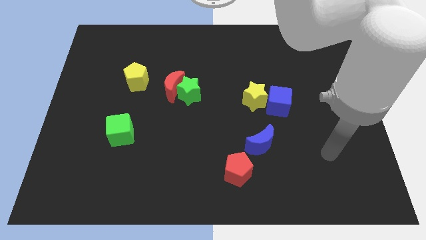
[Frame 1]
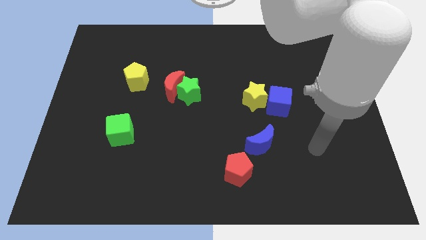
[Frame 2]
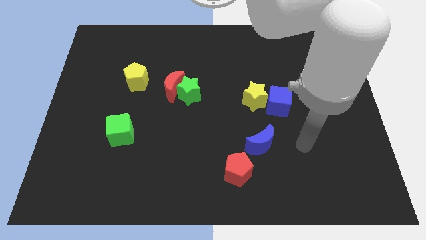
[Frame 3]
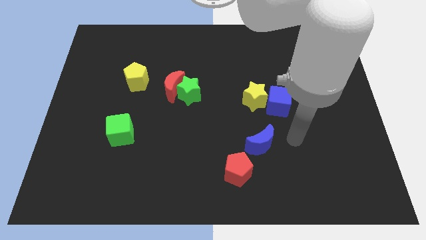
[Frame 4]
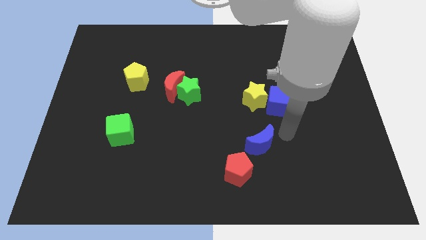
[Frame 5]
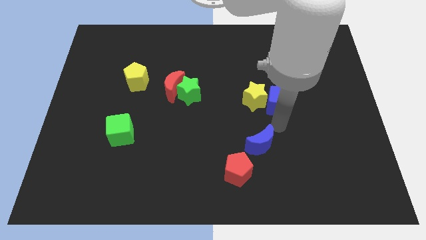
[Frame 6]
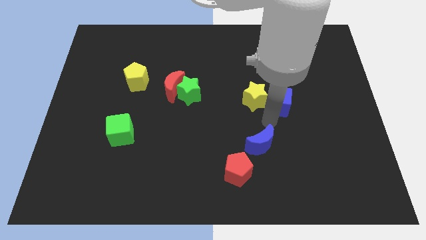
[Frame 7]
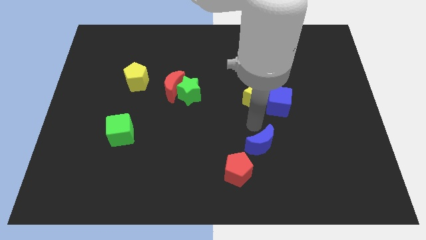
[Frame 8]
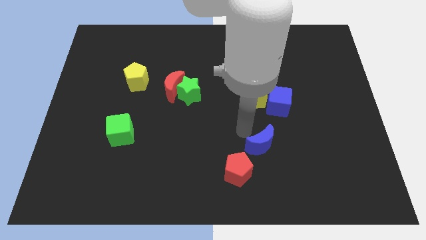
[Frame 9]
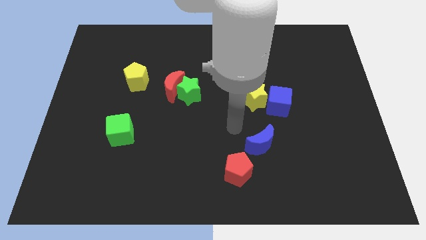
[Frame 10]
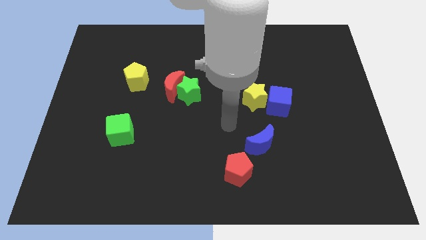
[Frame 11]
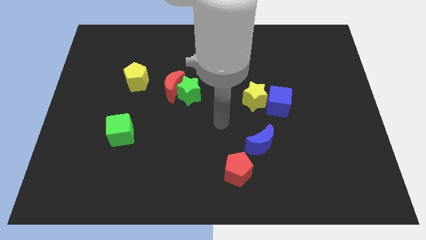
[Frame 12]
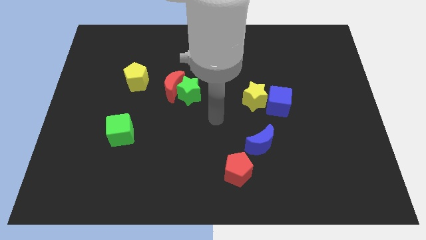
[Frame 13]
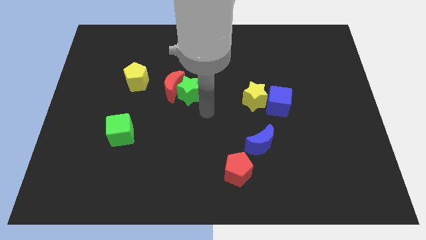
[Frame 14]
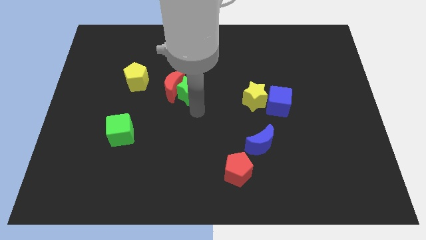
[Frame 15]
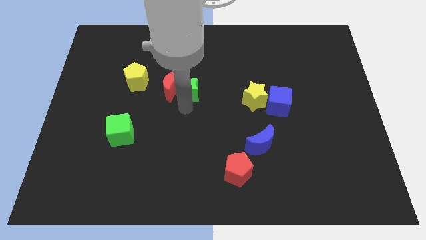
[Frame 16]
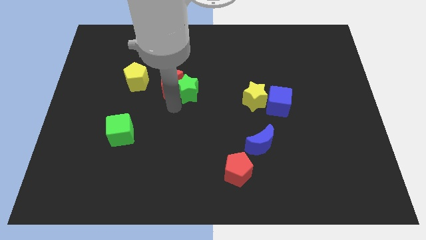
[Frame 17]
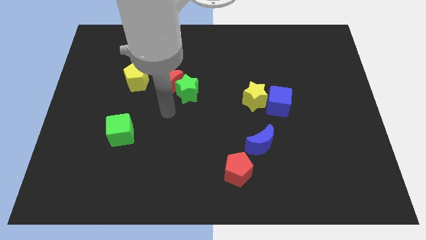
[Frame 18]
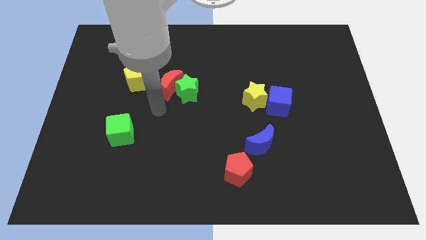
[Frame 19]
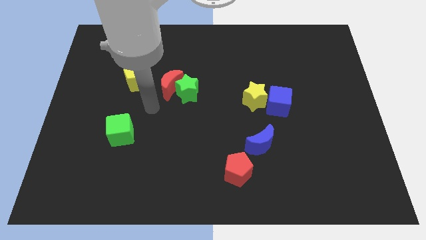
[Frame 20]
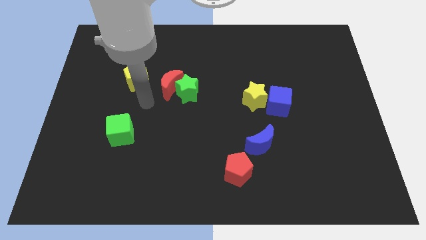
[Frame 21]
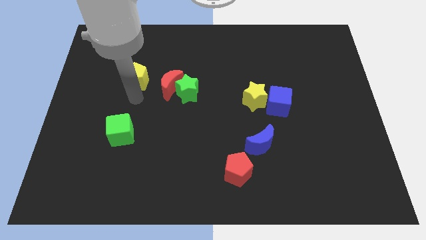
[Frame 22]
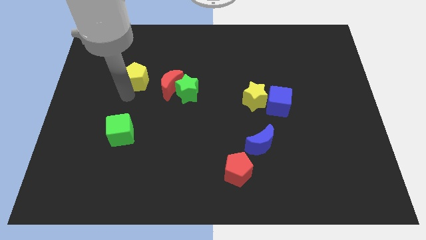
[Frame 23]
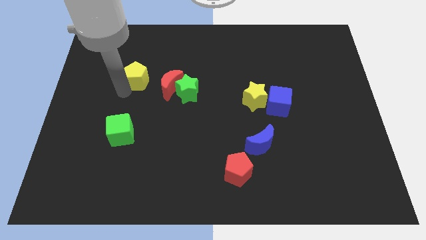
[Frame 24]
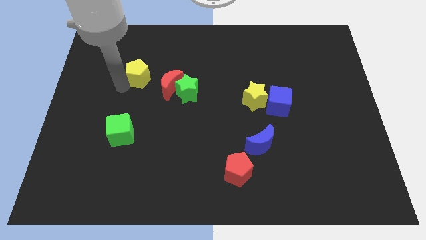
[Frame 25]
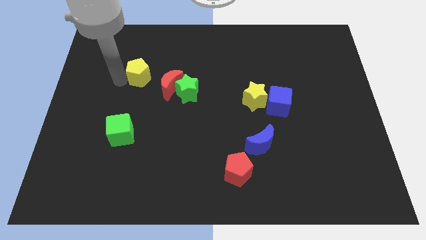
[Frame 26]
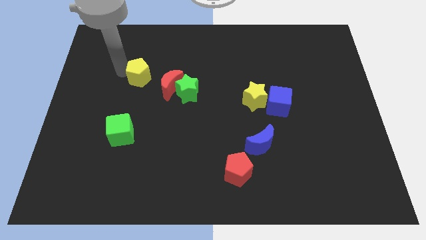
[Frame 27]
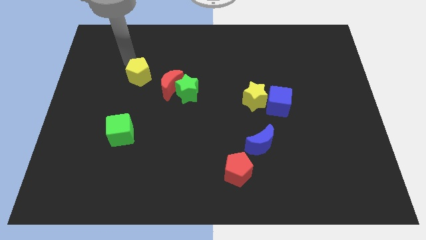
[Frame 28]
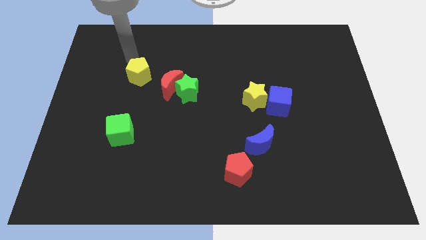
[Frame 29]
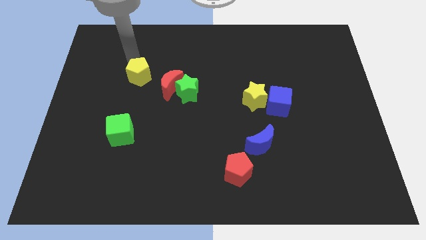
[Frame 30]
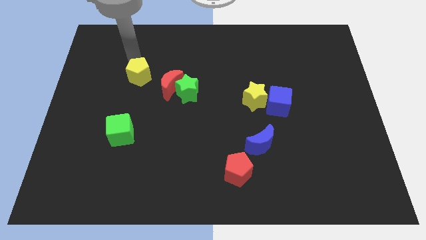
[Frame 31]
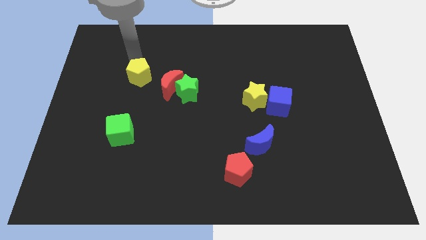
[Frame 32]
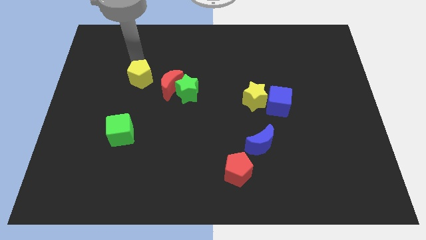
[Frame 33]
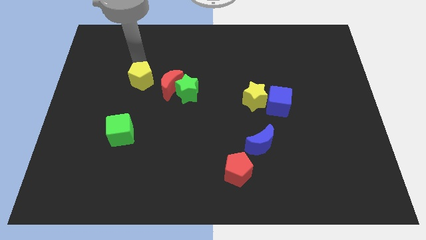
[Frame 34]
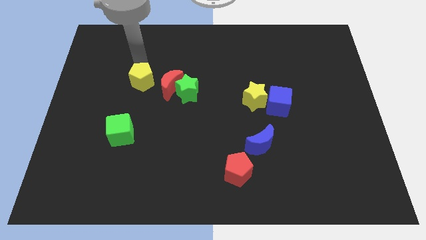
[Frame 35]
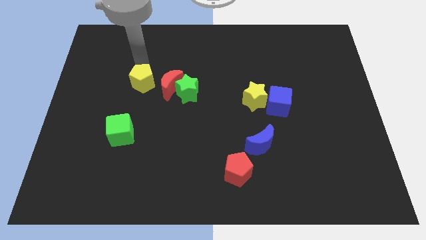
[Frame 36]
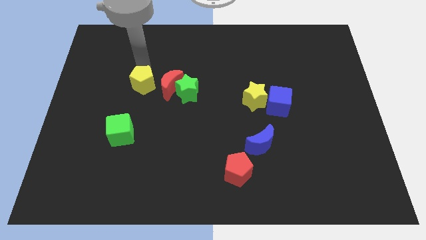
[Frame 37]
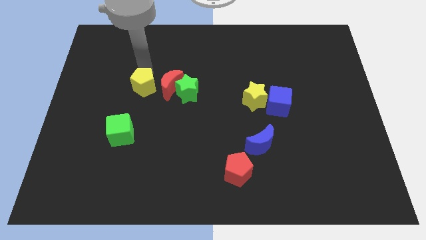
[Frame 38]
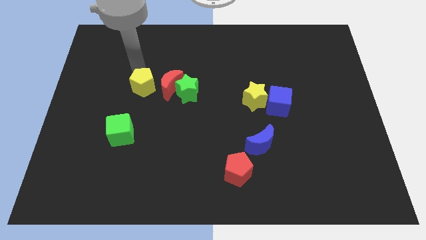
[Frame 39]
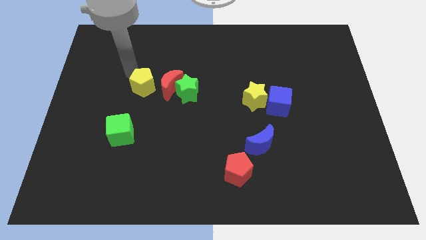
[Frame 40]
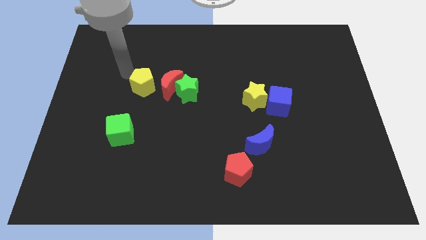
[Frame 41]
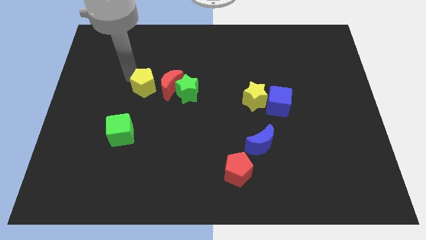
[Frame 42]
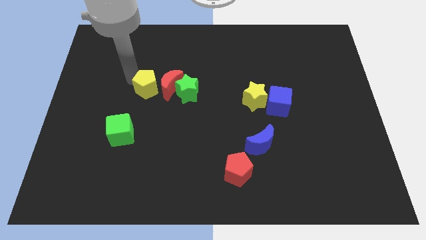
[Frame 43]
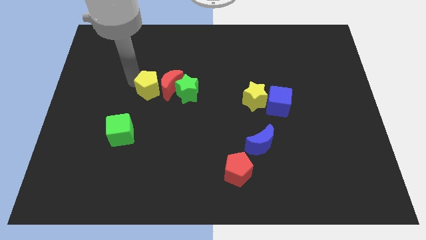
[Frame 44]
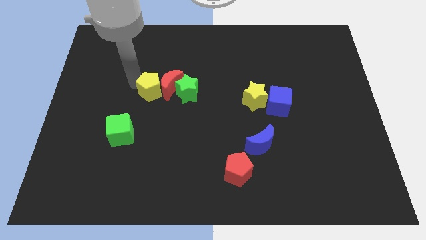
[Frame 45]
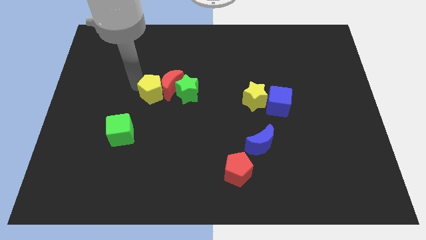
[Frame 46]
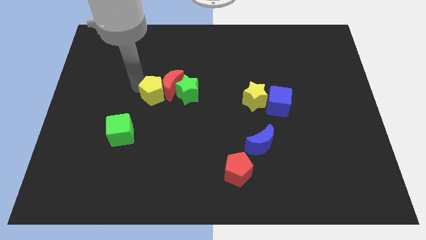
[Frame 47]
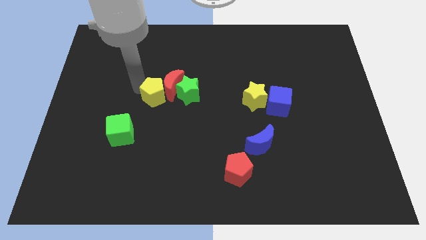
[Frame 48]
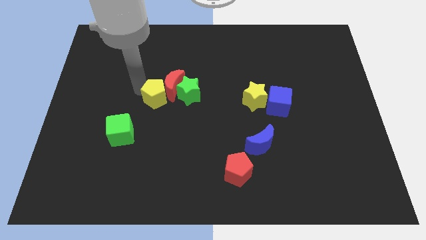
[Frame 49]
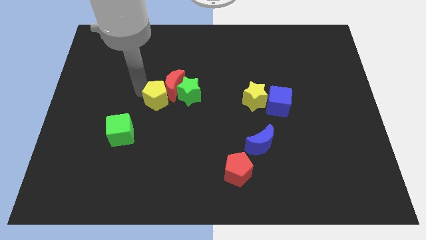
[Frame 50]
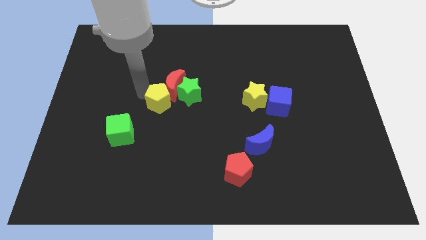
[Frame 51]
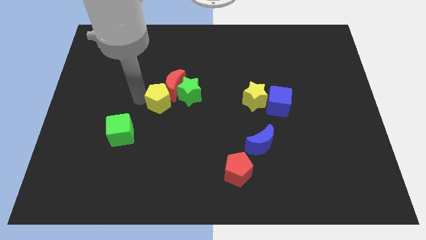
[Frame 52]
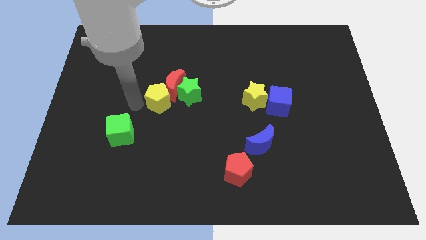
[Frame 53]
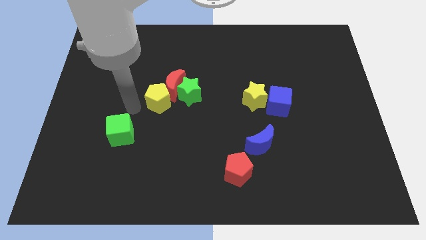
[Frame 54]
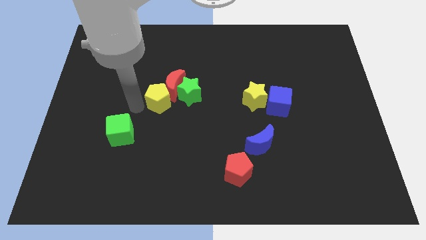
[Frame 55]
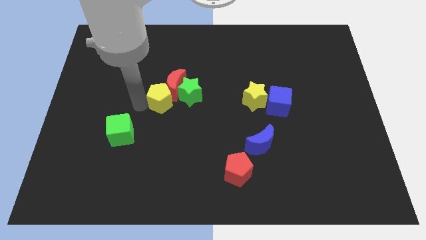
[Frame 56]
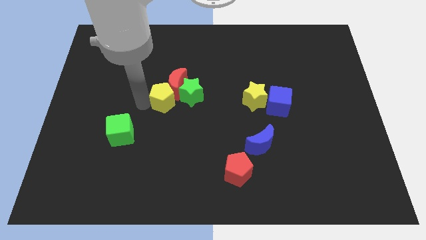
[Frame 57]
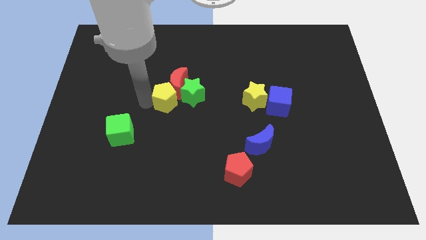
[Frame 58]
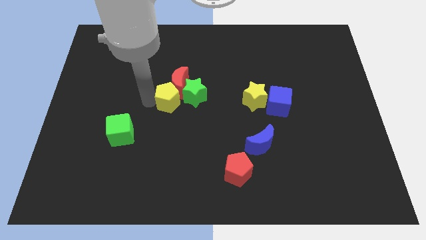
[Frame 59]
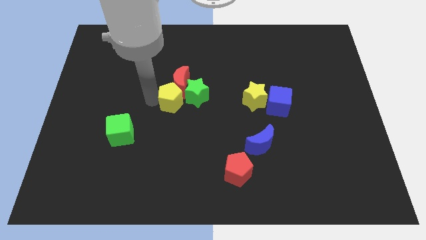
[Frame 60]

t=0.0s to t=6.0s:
move the yellow pentagon towards the green star

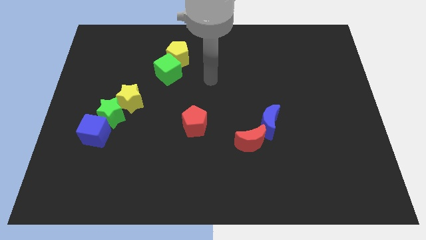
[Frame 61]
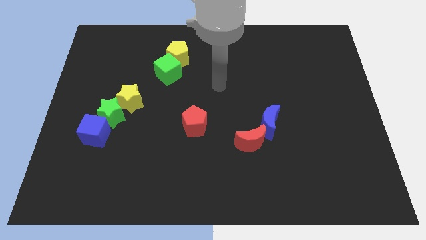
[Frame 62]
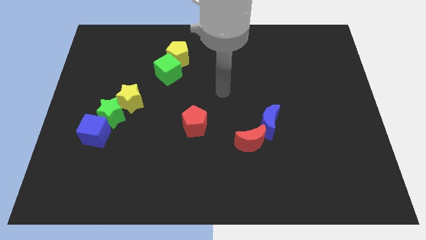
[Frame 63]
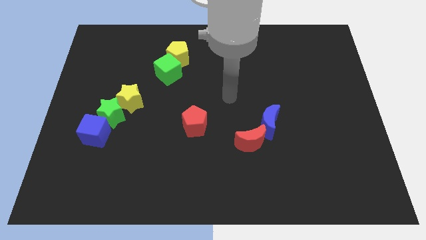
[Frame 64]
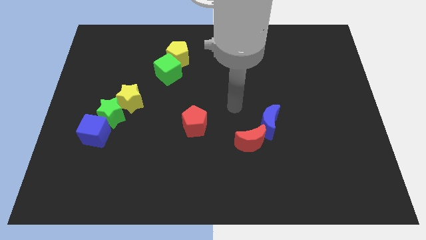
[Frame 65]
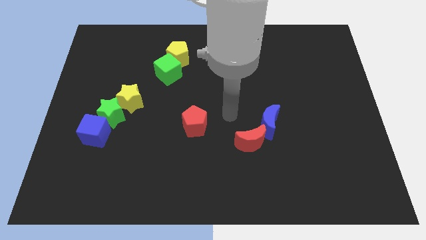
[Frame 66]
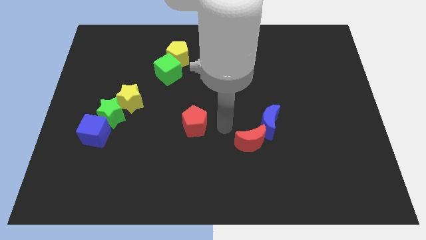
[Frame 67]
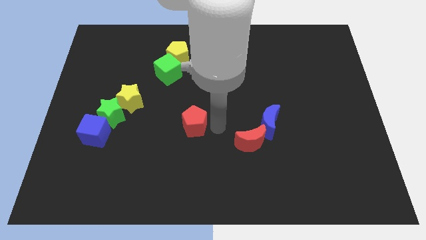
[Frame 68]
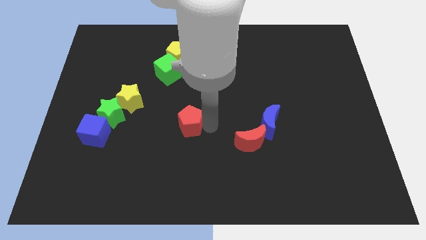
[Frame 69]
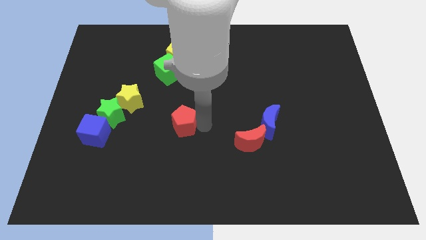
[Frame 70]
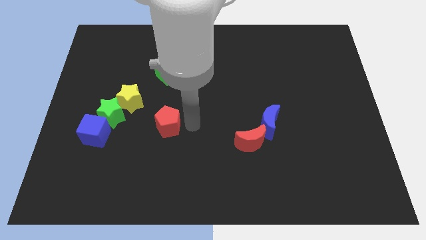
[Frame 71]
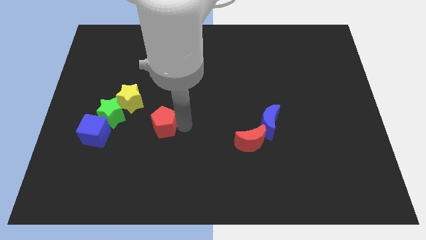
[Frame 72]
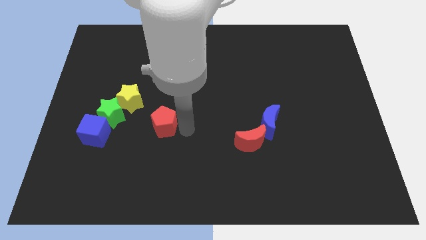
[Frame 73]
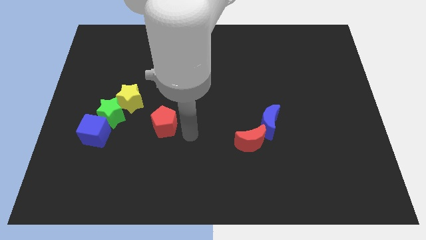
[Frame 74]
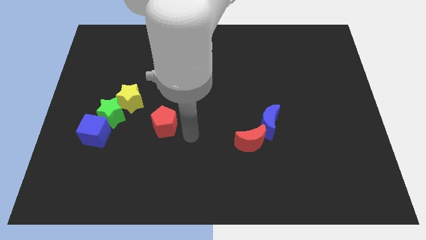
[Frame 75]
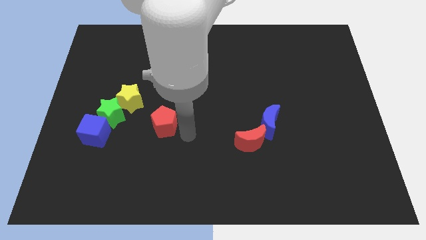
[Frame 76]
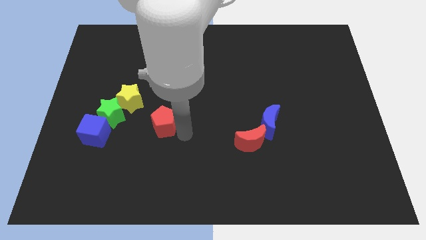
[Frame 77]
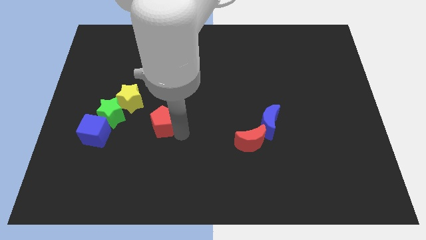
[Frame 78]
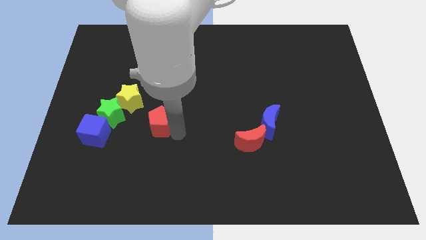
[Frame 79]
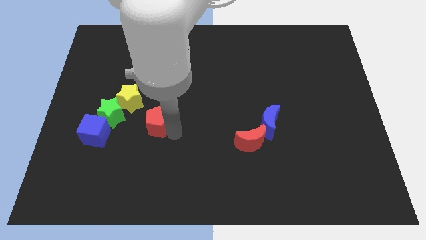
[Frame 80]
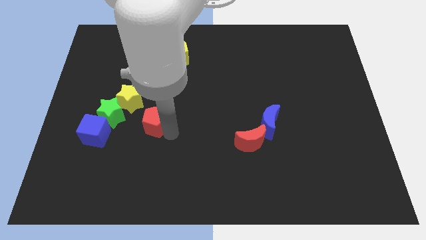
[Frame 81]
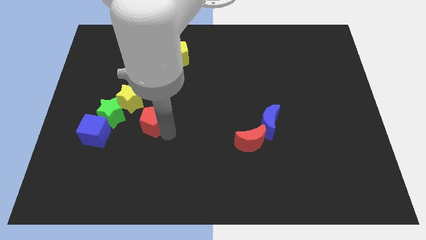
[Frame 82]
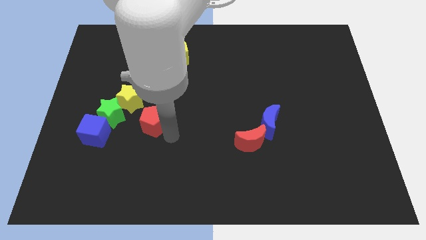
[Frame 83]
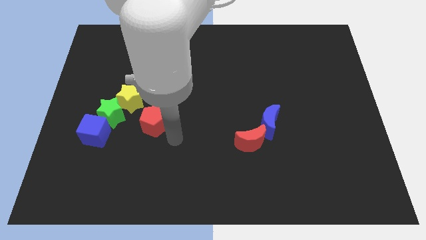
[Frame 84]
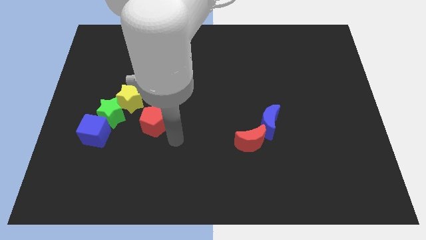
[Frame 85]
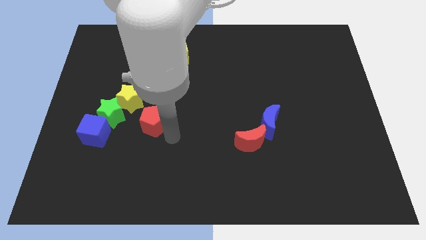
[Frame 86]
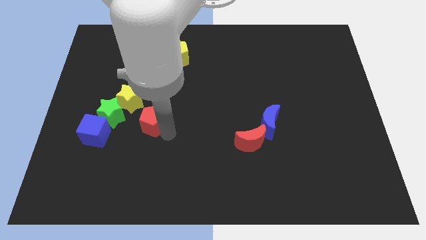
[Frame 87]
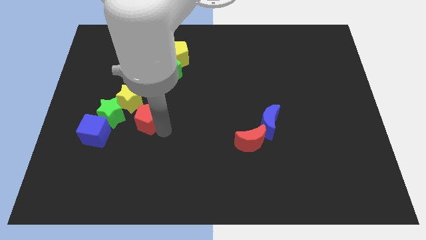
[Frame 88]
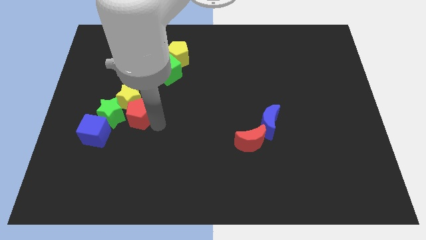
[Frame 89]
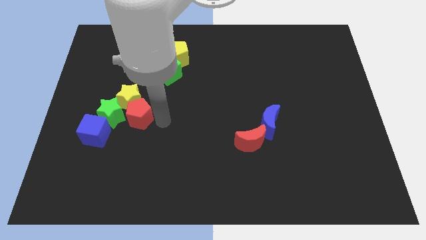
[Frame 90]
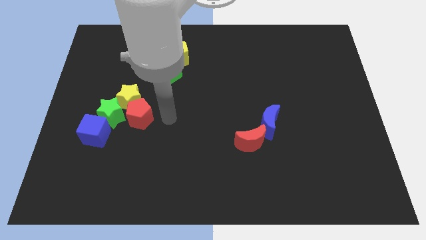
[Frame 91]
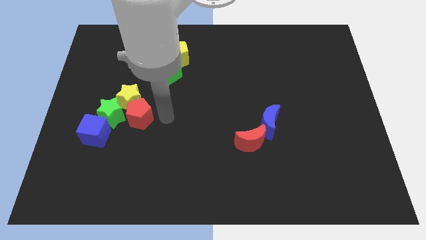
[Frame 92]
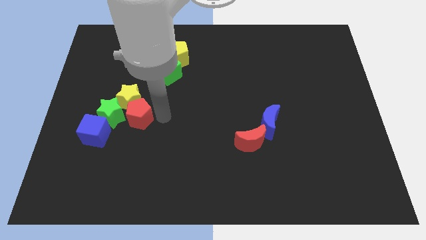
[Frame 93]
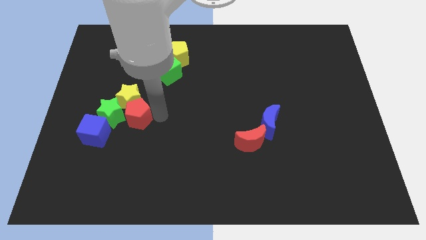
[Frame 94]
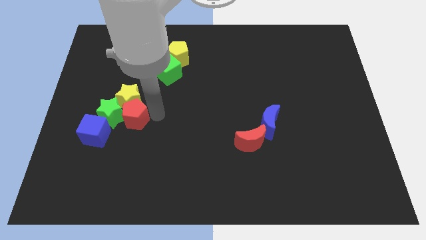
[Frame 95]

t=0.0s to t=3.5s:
push the red pentagon next to the green star
